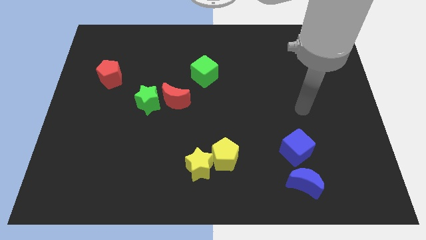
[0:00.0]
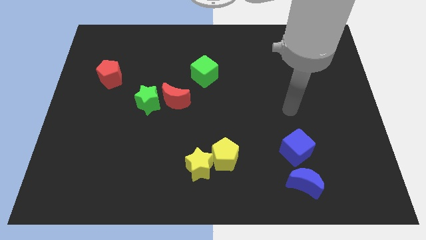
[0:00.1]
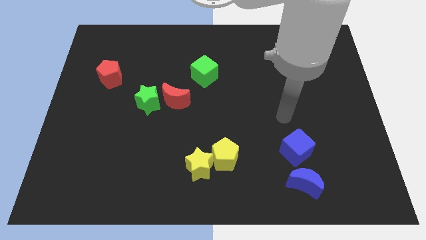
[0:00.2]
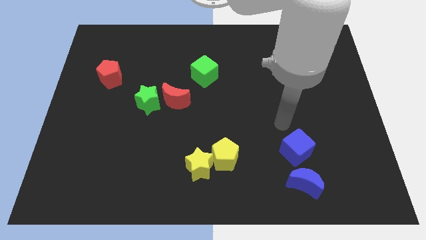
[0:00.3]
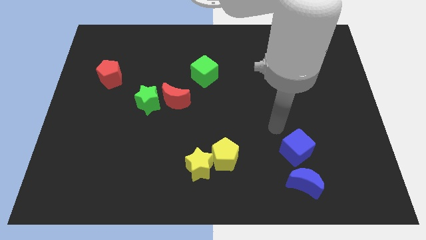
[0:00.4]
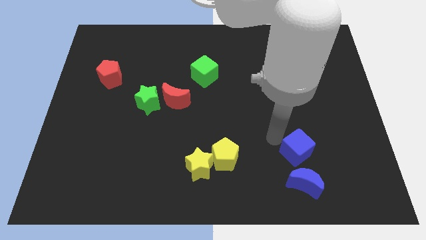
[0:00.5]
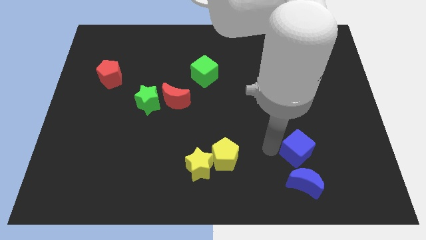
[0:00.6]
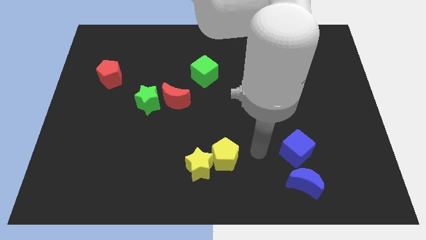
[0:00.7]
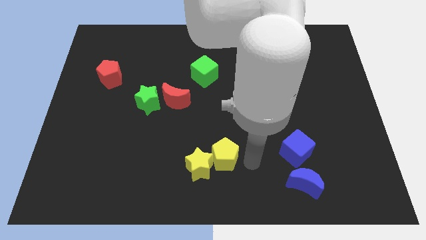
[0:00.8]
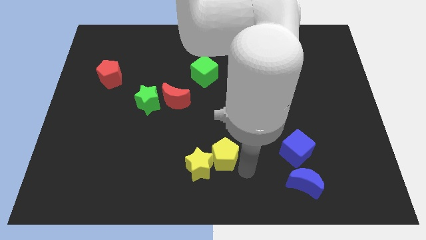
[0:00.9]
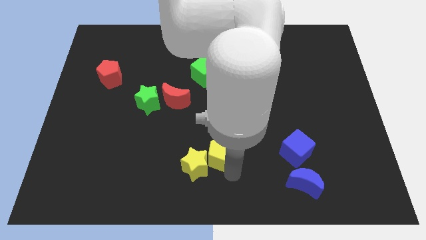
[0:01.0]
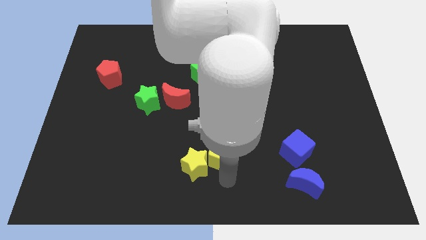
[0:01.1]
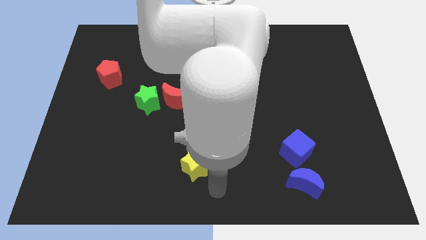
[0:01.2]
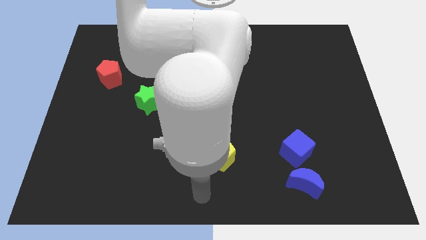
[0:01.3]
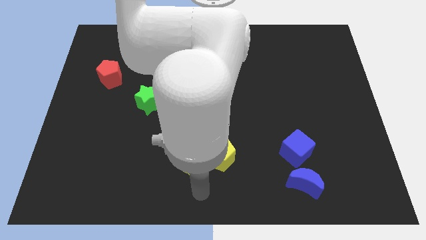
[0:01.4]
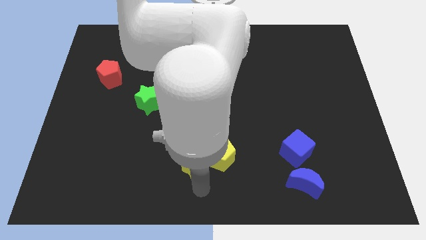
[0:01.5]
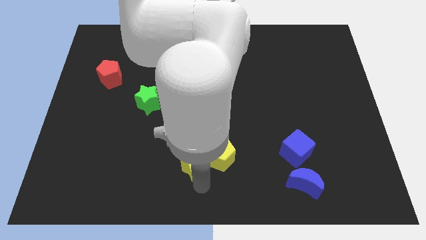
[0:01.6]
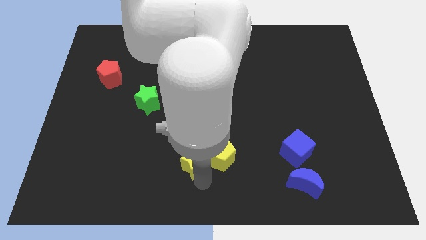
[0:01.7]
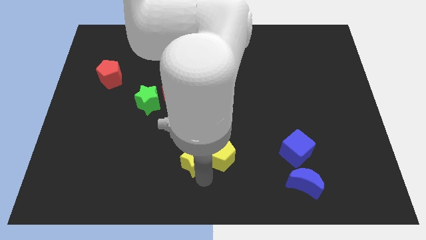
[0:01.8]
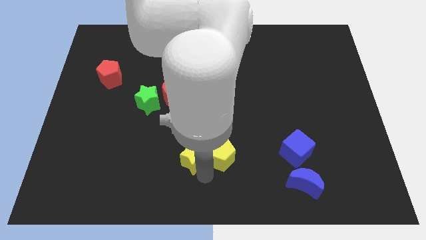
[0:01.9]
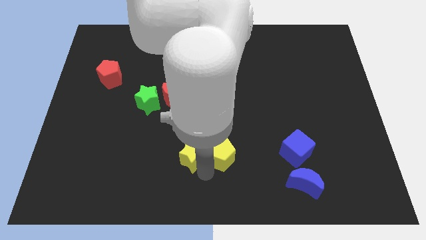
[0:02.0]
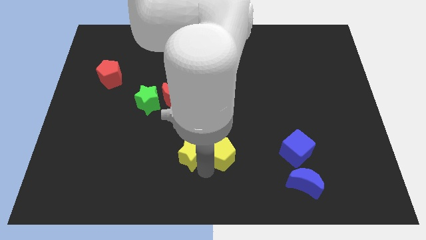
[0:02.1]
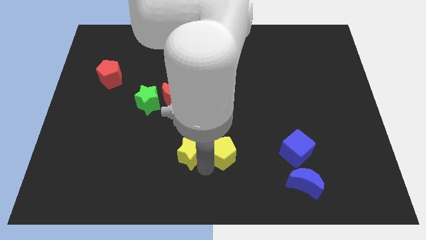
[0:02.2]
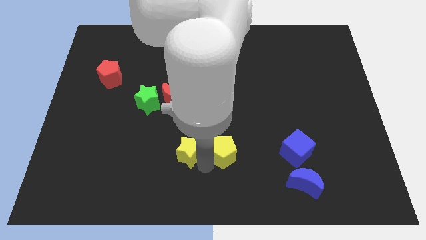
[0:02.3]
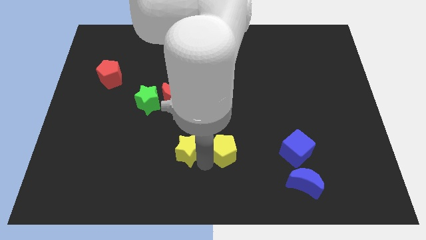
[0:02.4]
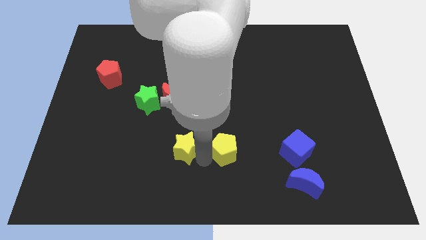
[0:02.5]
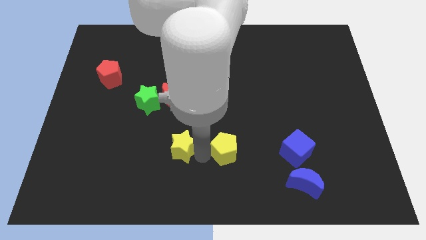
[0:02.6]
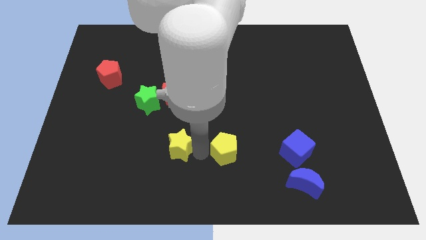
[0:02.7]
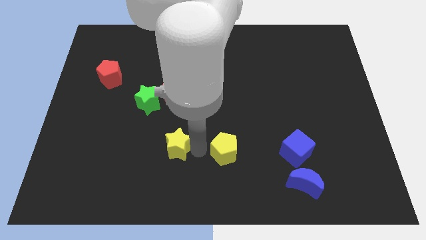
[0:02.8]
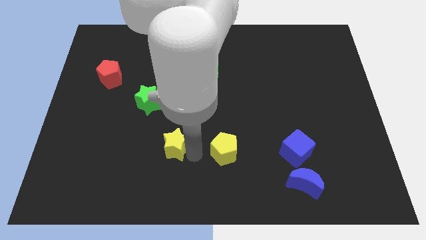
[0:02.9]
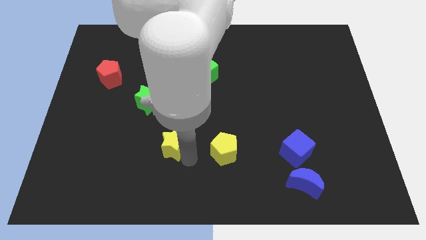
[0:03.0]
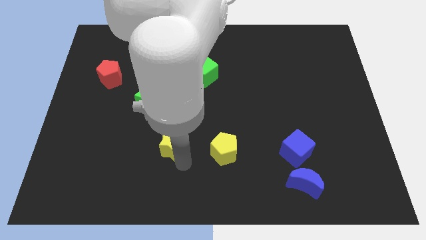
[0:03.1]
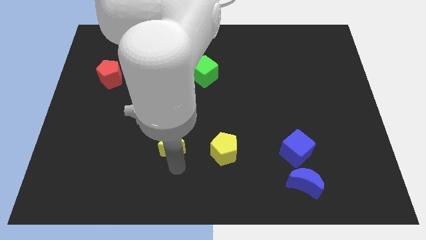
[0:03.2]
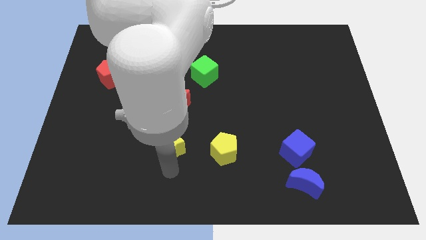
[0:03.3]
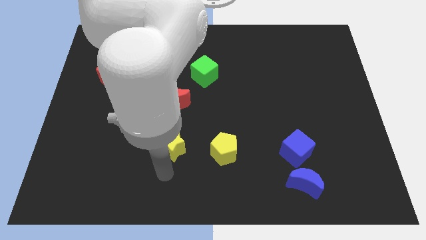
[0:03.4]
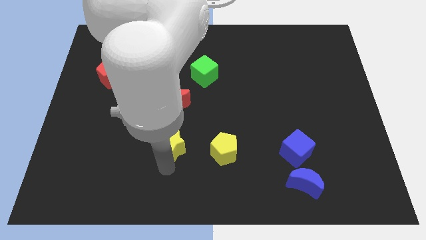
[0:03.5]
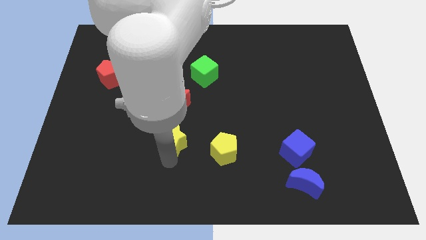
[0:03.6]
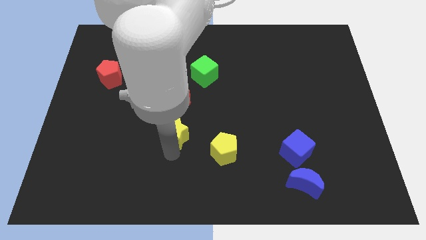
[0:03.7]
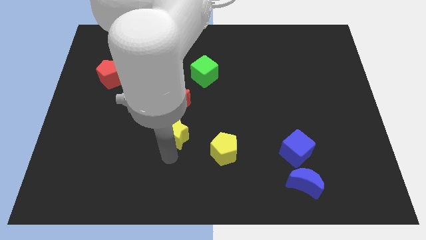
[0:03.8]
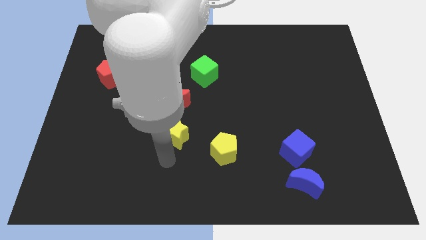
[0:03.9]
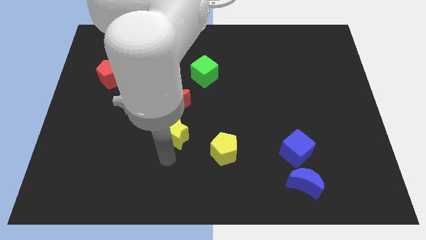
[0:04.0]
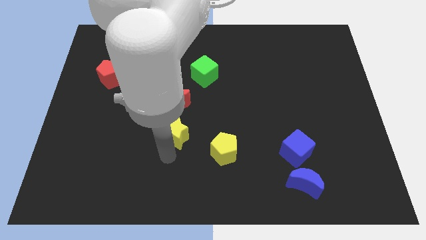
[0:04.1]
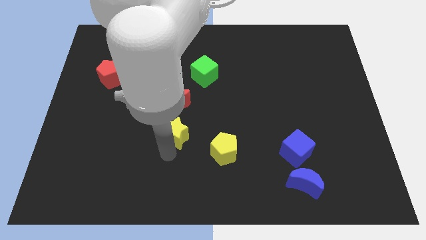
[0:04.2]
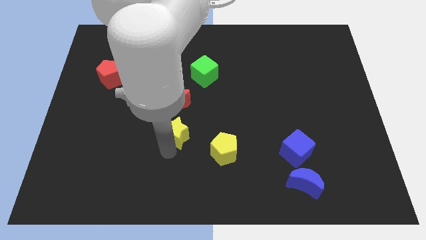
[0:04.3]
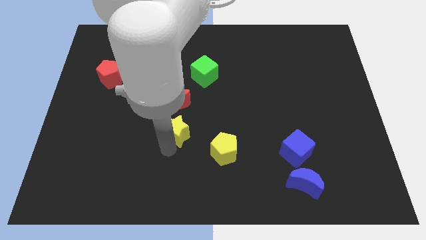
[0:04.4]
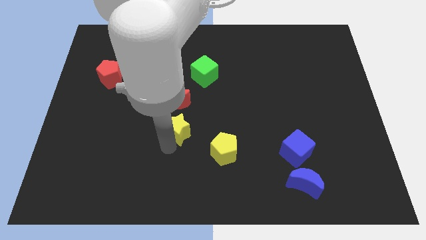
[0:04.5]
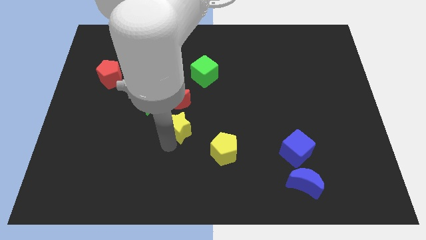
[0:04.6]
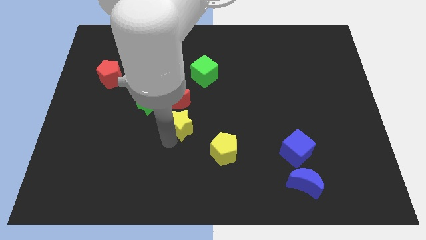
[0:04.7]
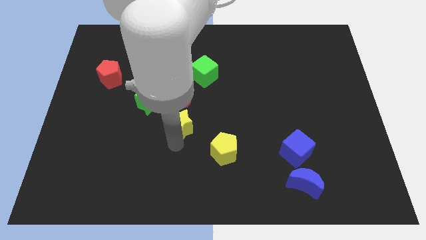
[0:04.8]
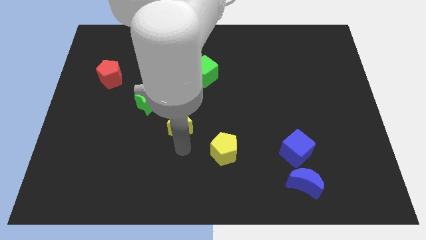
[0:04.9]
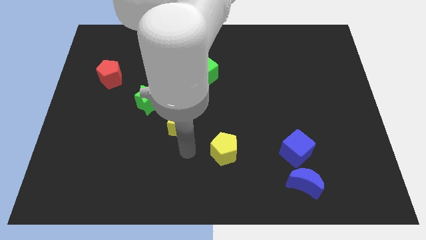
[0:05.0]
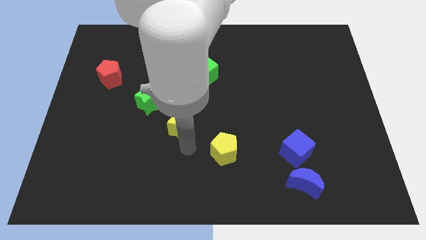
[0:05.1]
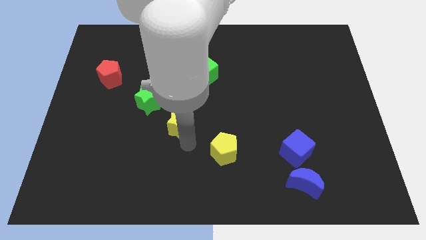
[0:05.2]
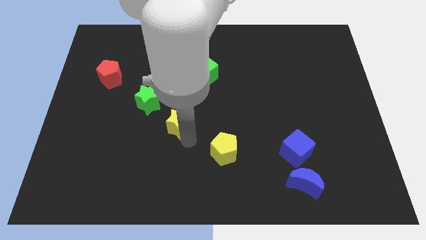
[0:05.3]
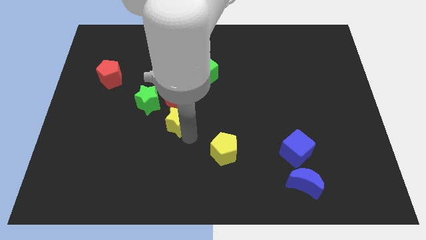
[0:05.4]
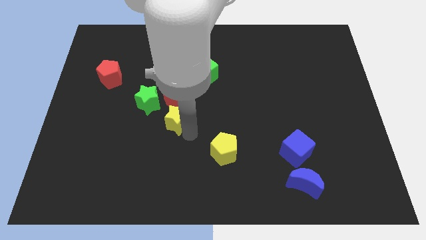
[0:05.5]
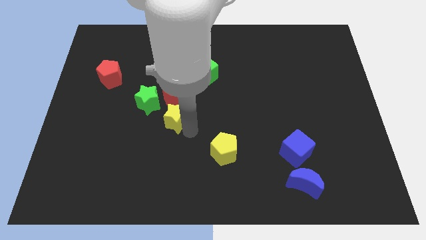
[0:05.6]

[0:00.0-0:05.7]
slide the yellow star close to the red moon

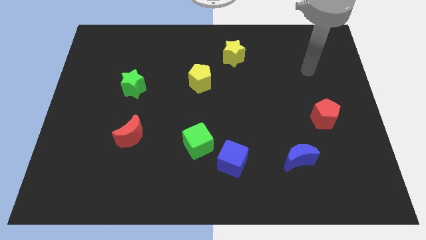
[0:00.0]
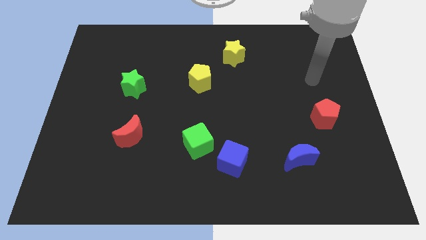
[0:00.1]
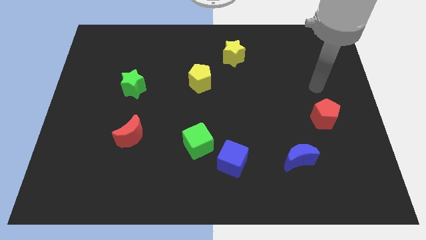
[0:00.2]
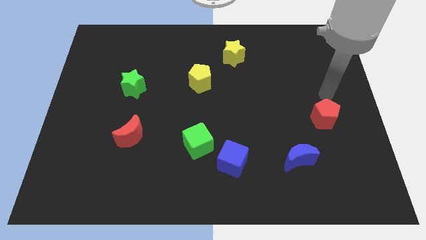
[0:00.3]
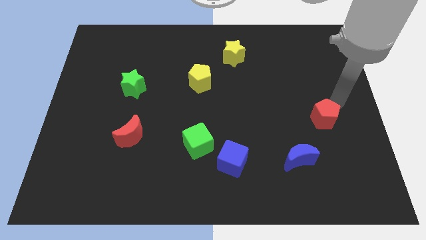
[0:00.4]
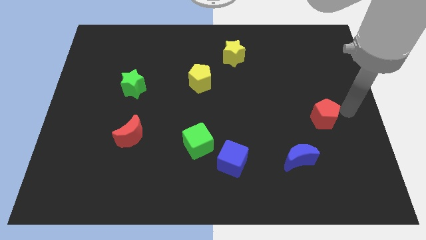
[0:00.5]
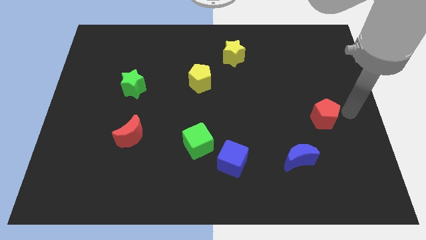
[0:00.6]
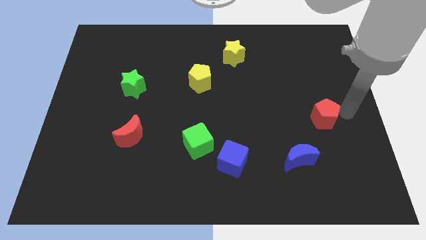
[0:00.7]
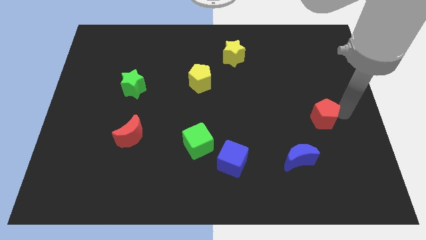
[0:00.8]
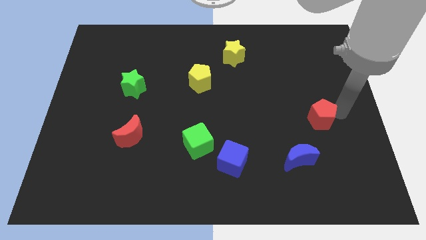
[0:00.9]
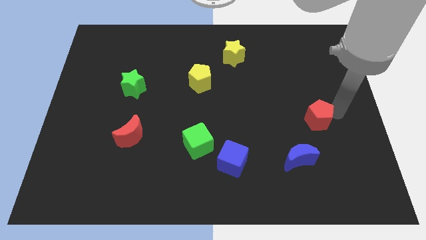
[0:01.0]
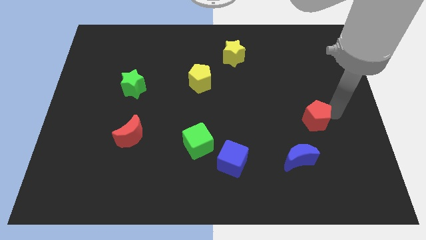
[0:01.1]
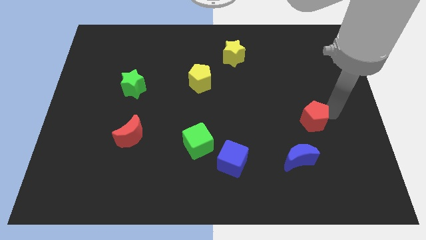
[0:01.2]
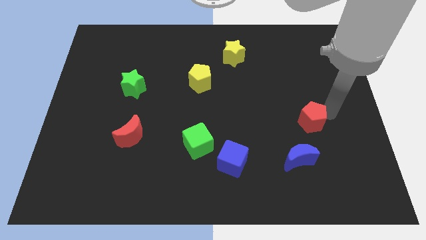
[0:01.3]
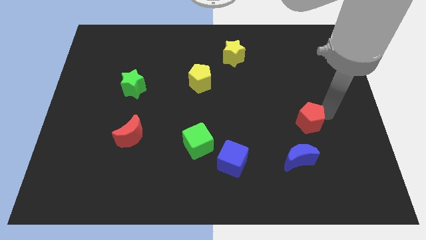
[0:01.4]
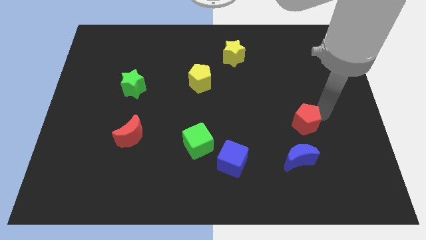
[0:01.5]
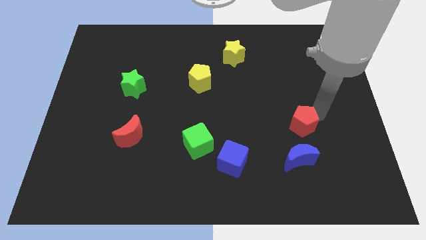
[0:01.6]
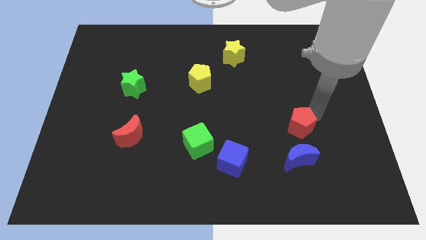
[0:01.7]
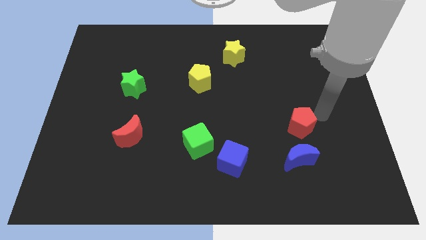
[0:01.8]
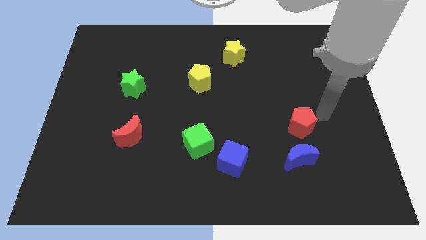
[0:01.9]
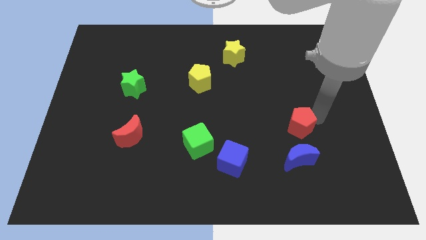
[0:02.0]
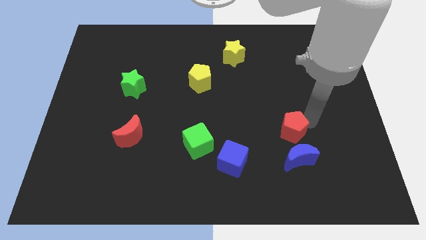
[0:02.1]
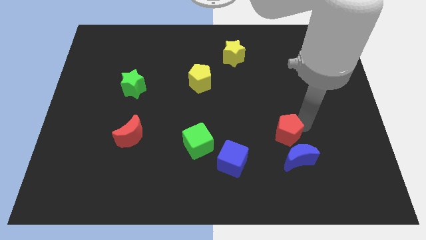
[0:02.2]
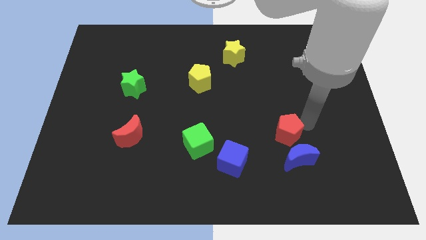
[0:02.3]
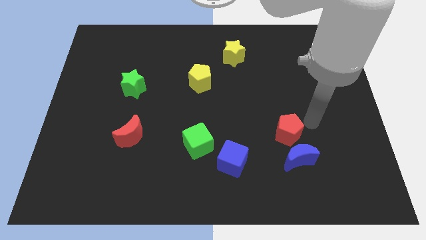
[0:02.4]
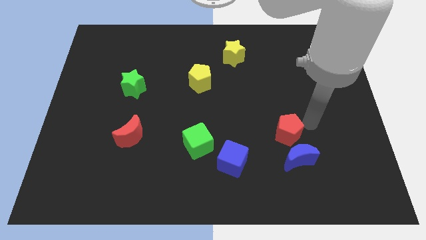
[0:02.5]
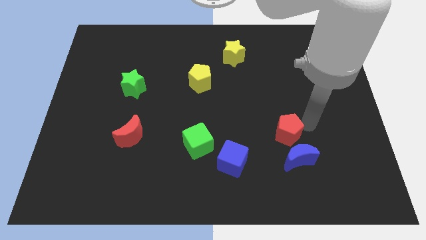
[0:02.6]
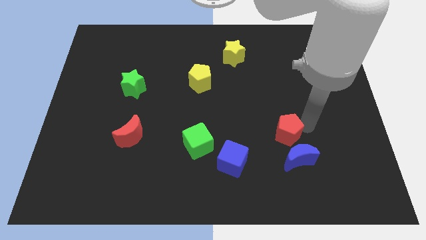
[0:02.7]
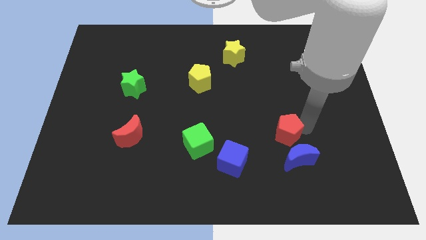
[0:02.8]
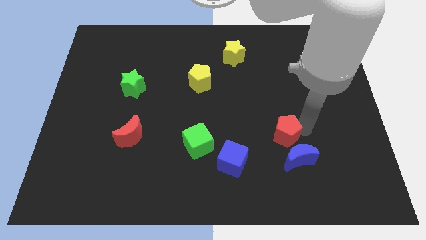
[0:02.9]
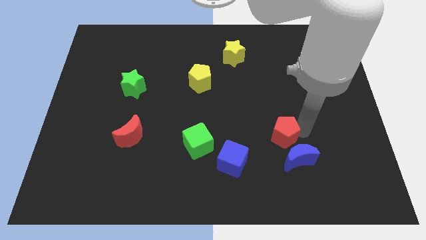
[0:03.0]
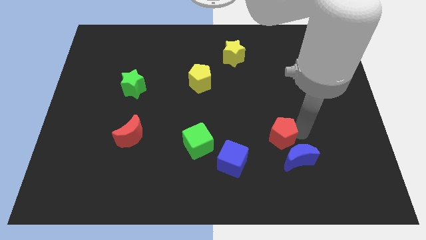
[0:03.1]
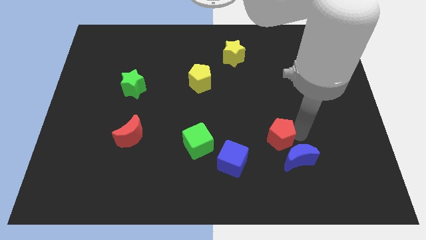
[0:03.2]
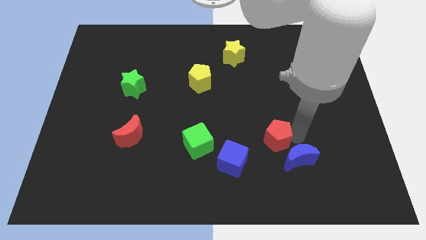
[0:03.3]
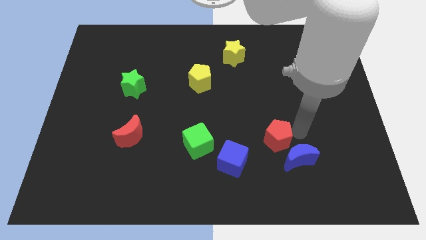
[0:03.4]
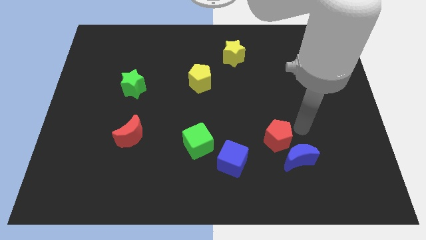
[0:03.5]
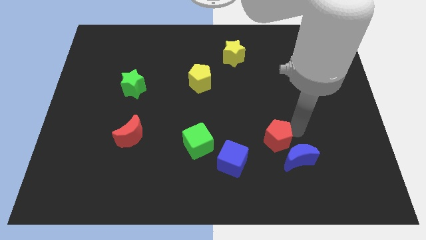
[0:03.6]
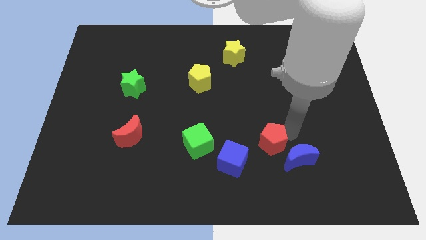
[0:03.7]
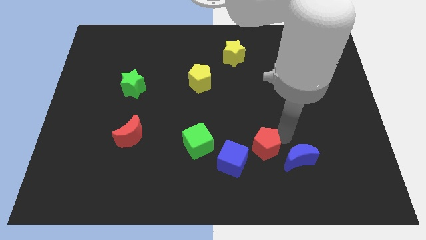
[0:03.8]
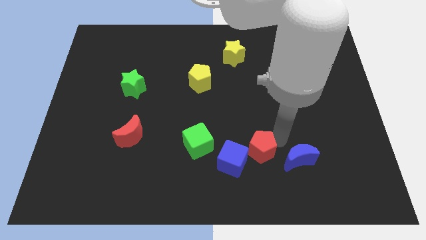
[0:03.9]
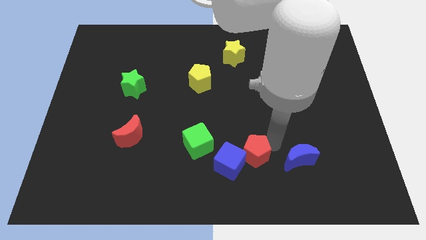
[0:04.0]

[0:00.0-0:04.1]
push the red pentagon next to the blue cube
